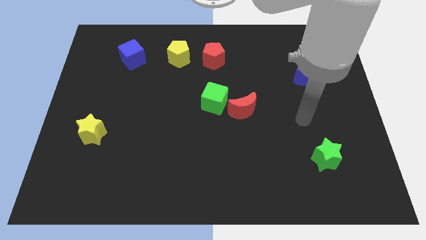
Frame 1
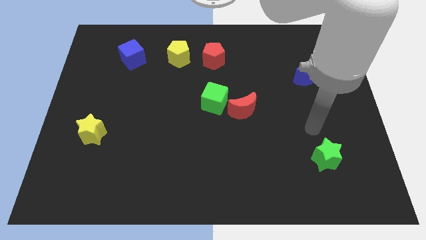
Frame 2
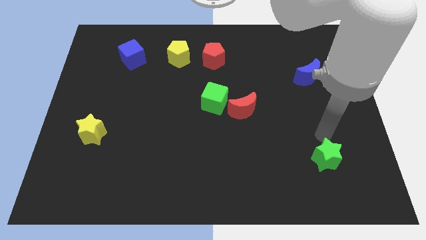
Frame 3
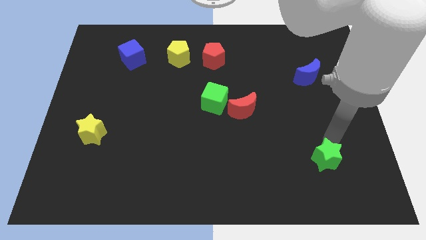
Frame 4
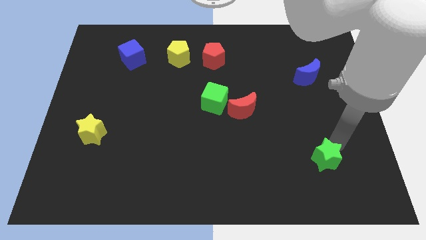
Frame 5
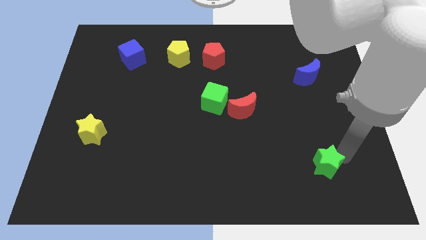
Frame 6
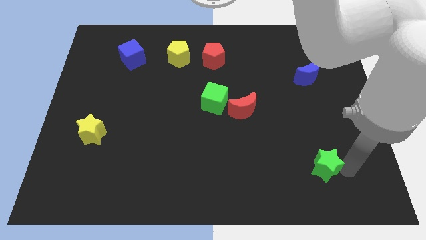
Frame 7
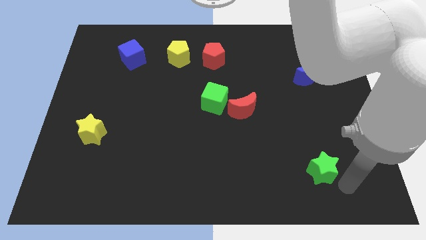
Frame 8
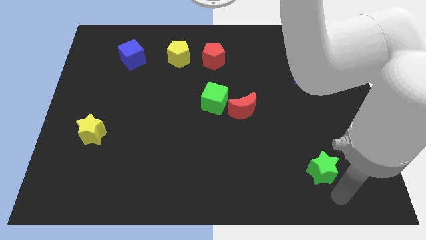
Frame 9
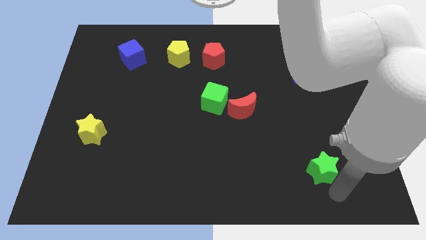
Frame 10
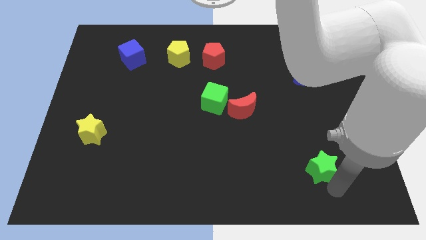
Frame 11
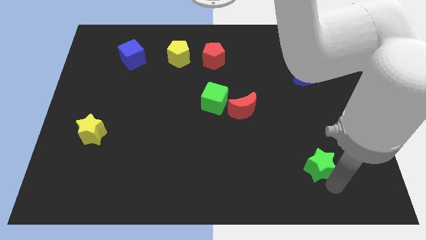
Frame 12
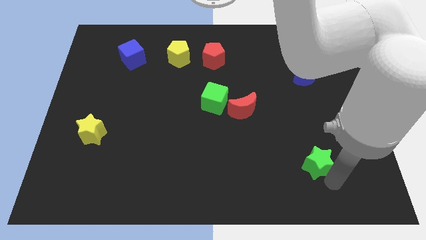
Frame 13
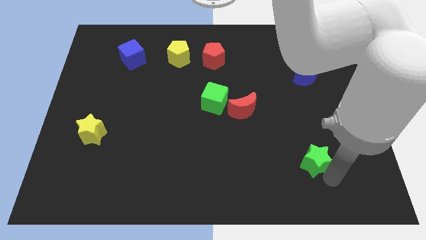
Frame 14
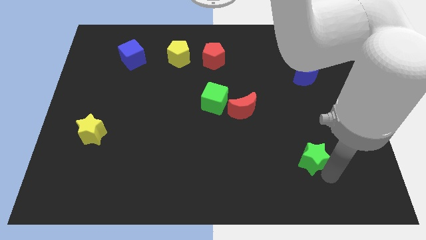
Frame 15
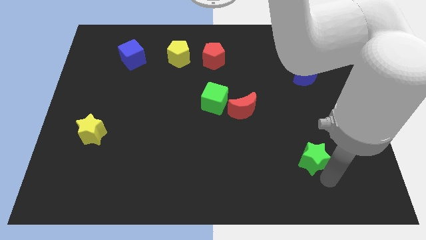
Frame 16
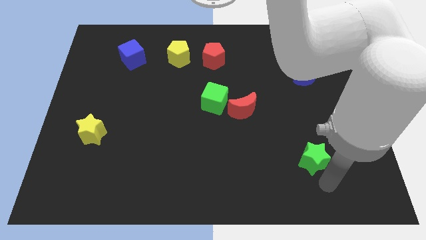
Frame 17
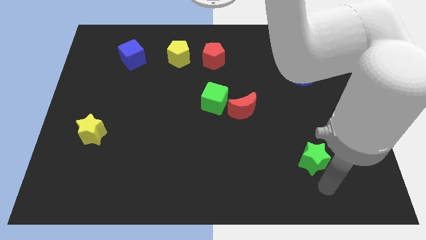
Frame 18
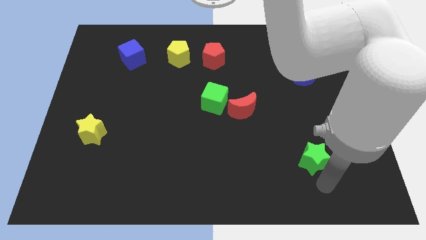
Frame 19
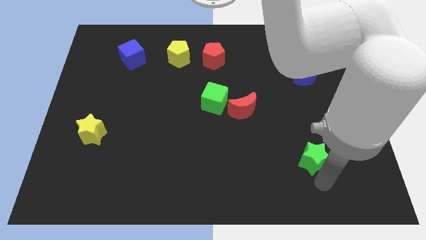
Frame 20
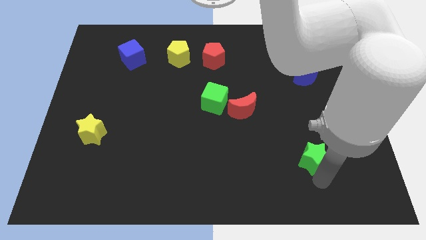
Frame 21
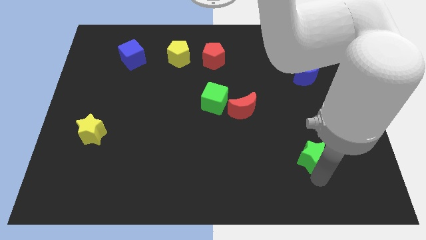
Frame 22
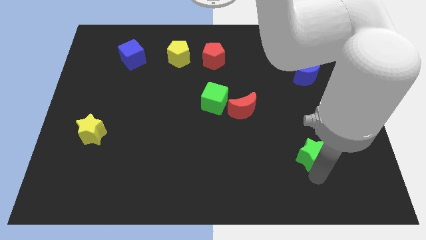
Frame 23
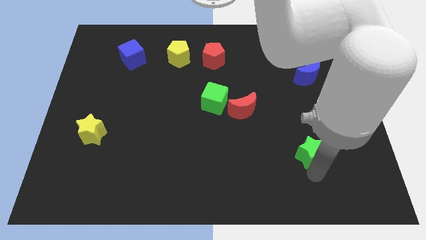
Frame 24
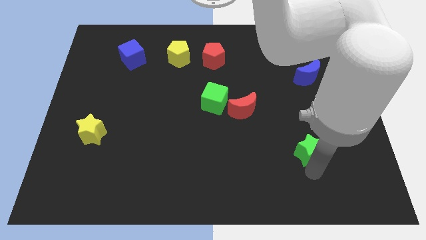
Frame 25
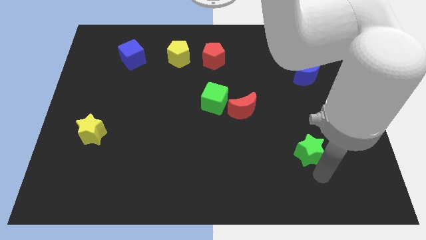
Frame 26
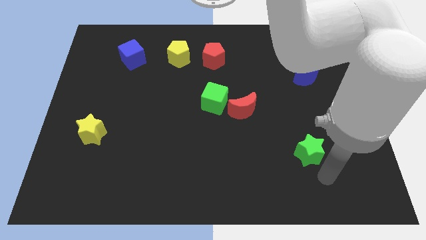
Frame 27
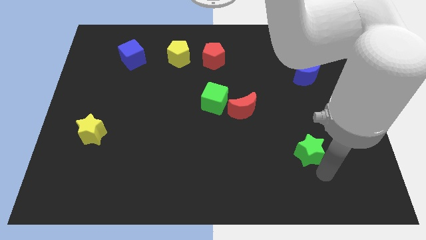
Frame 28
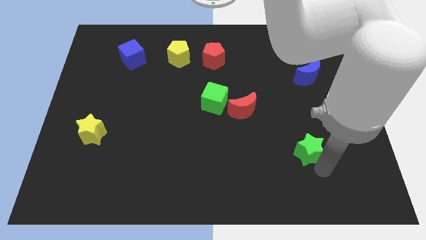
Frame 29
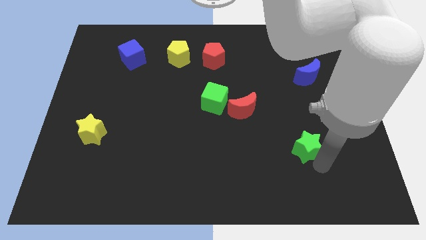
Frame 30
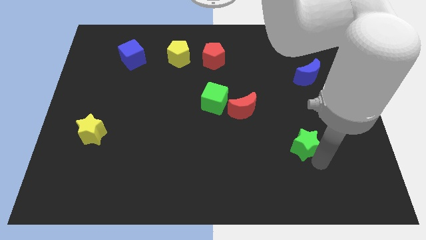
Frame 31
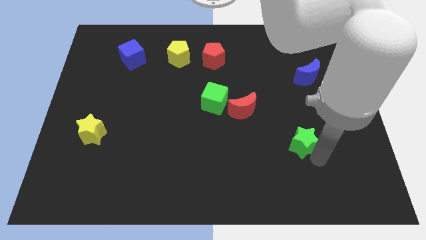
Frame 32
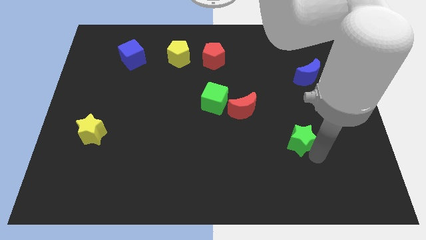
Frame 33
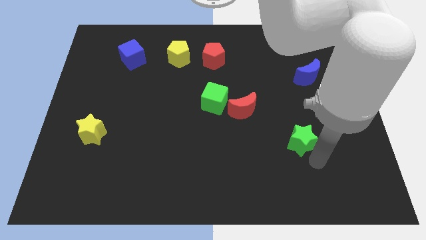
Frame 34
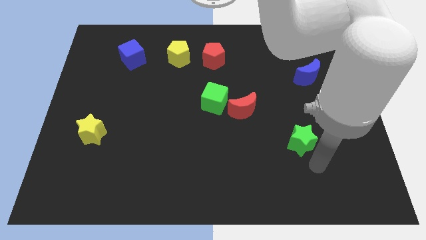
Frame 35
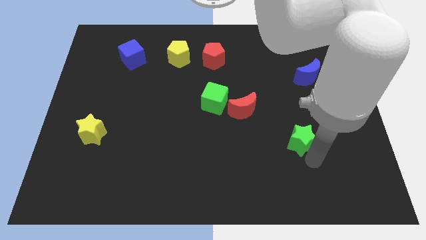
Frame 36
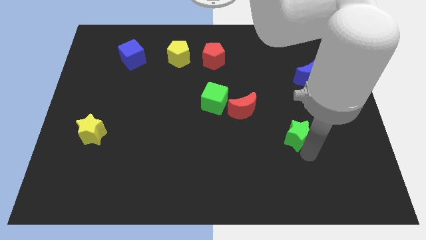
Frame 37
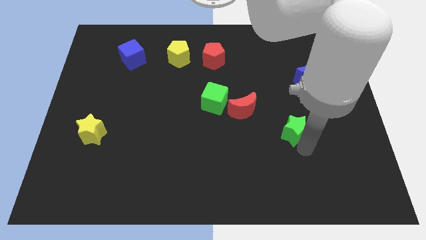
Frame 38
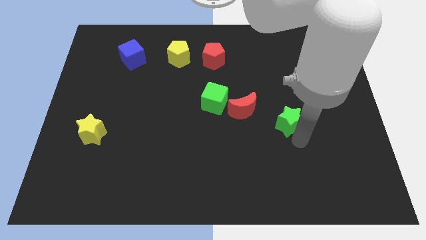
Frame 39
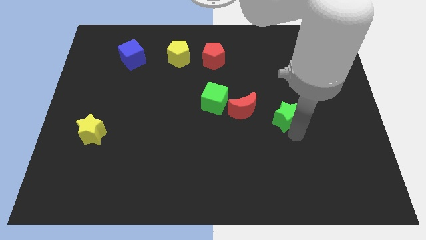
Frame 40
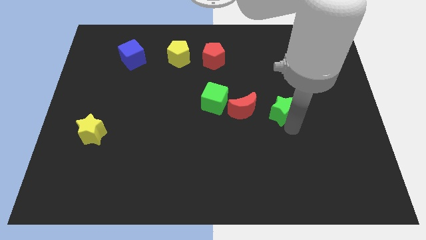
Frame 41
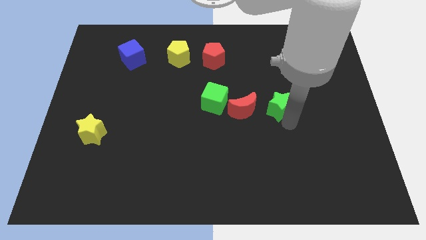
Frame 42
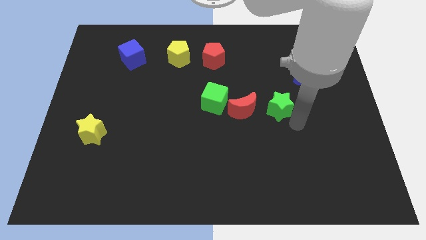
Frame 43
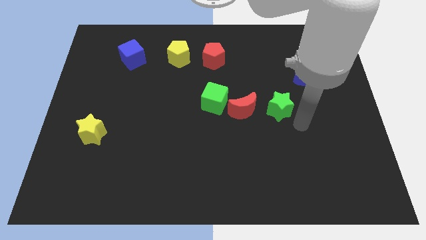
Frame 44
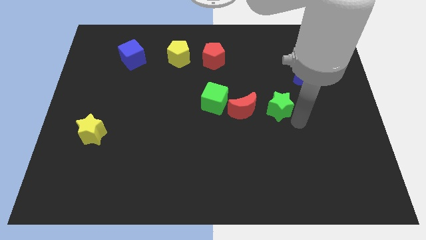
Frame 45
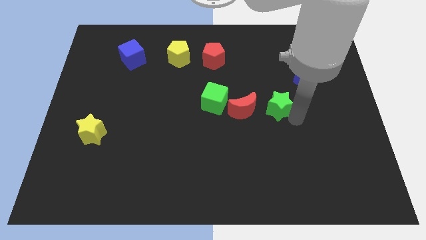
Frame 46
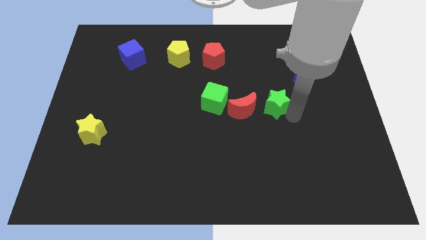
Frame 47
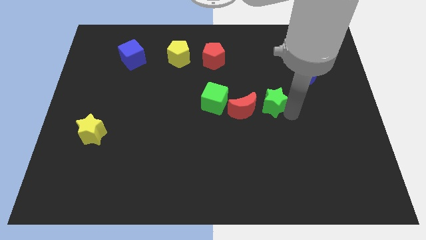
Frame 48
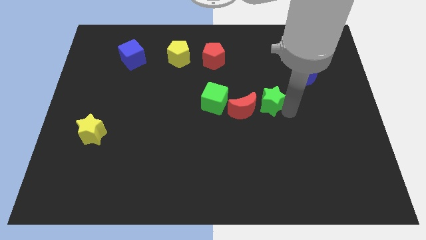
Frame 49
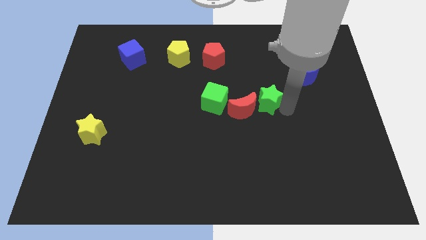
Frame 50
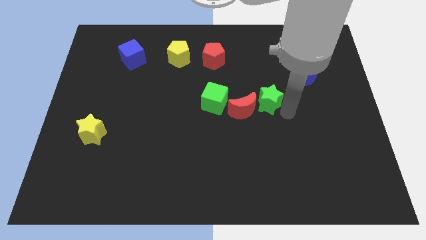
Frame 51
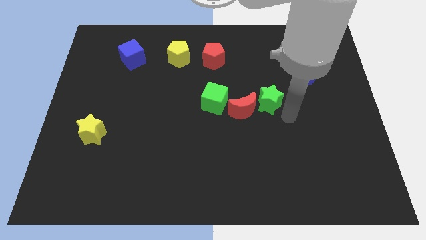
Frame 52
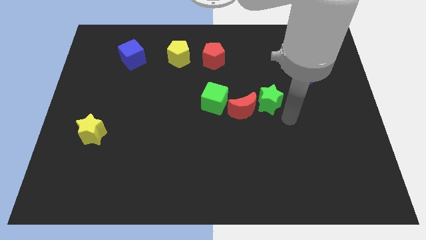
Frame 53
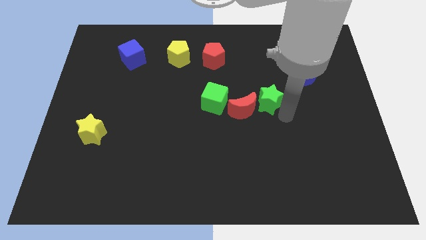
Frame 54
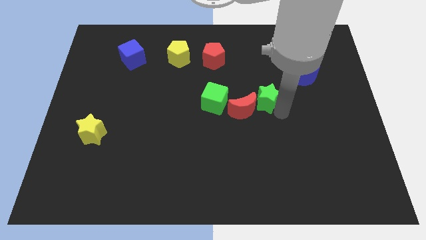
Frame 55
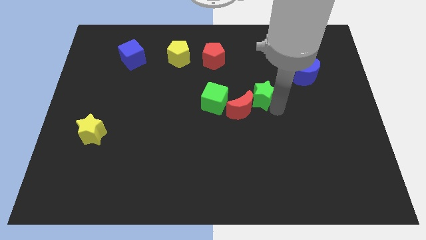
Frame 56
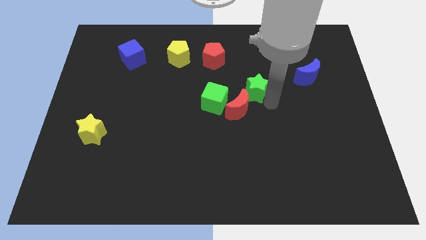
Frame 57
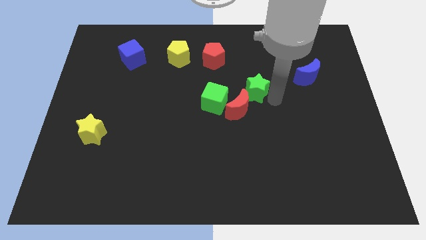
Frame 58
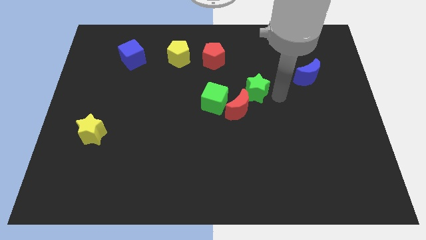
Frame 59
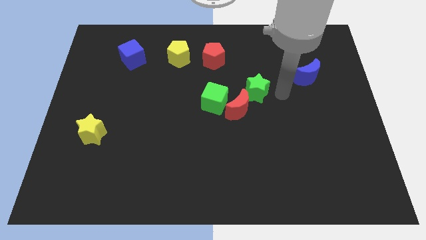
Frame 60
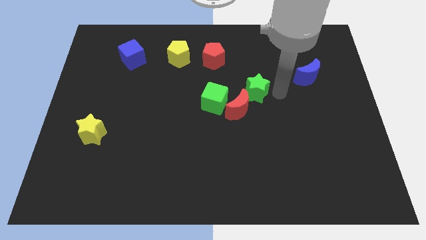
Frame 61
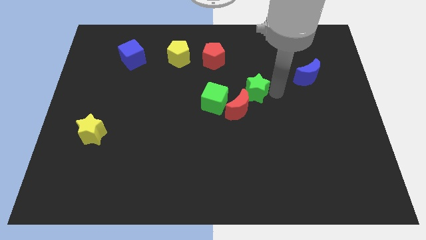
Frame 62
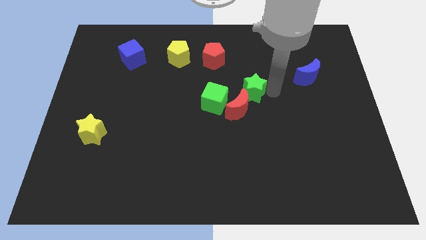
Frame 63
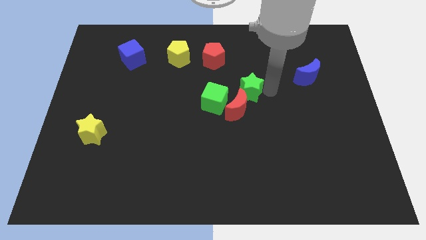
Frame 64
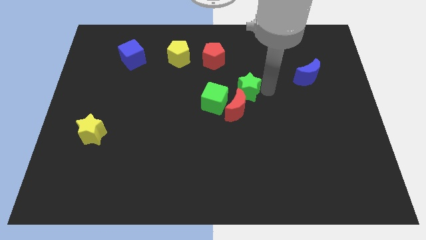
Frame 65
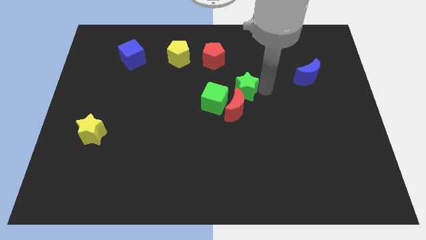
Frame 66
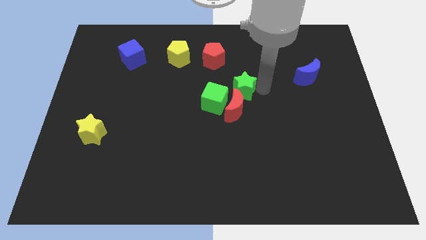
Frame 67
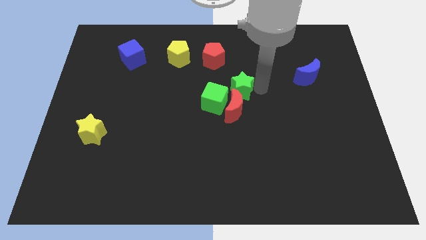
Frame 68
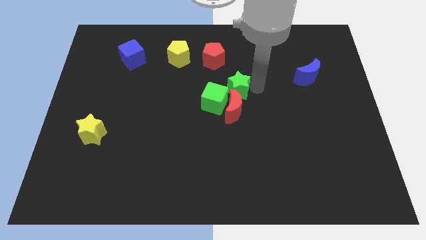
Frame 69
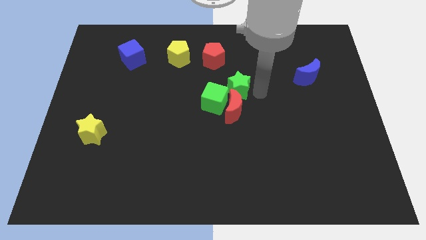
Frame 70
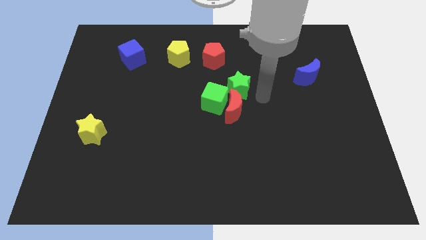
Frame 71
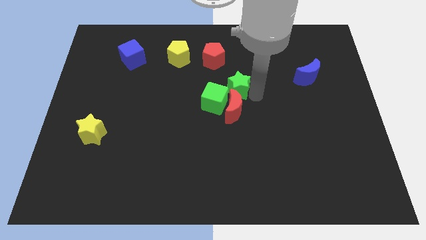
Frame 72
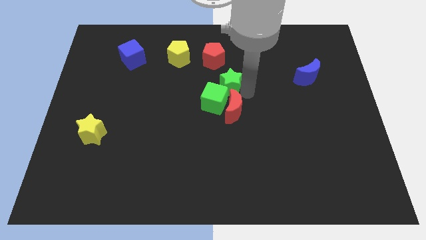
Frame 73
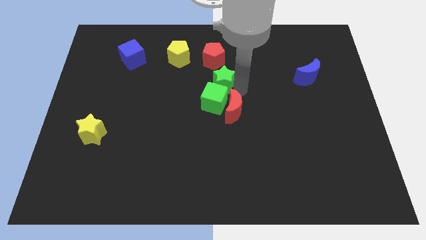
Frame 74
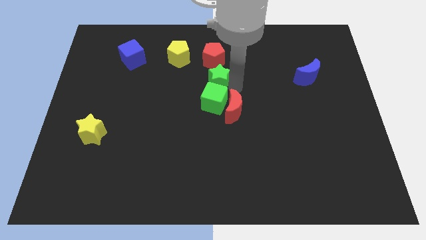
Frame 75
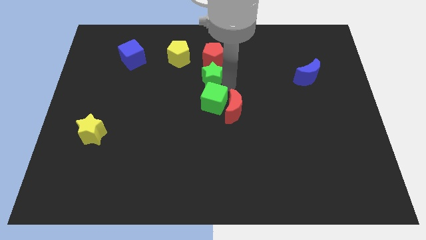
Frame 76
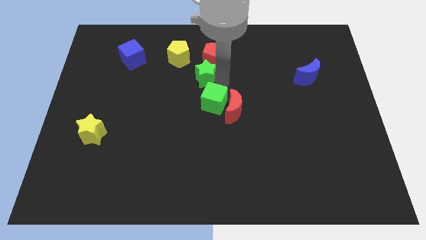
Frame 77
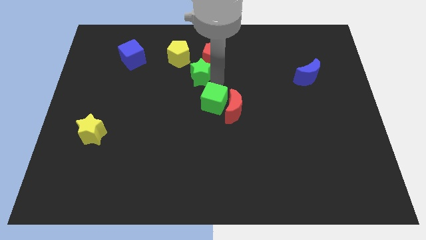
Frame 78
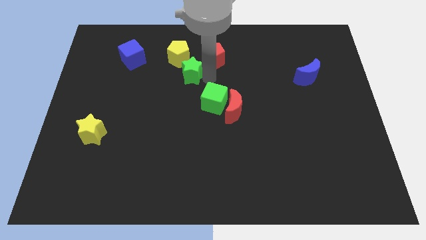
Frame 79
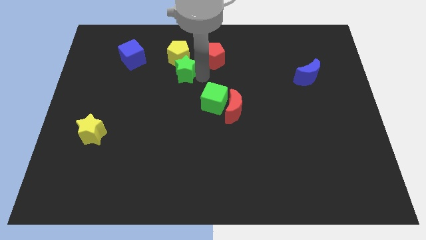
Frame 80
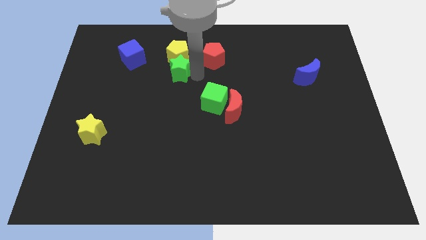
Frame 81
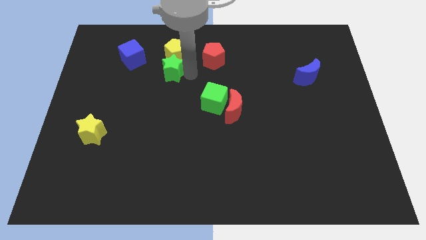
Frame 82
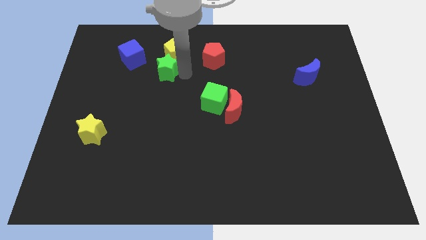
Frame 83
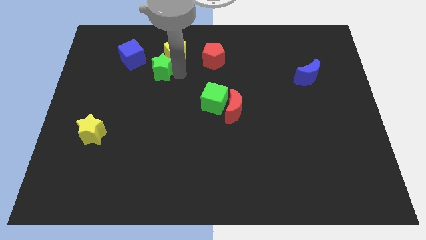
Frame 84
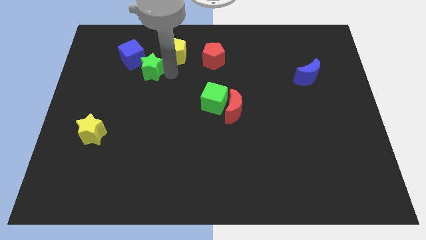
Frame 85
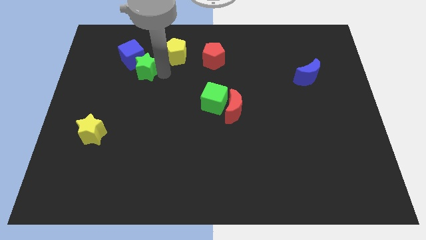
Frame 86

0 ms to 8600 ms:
push the green star close to the blue cube
